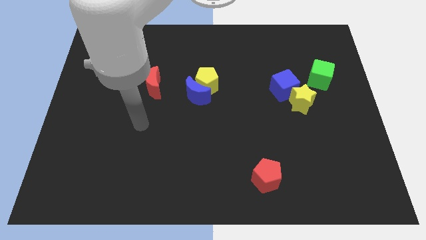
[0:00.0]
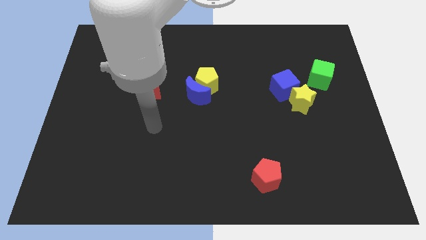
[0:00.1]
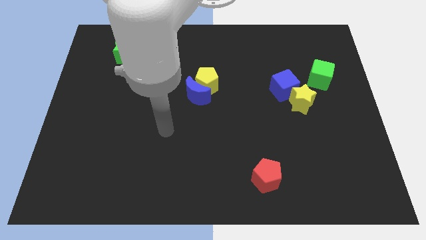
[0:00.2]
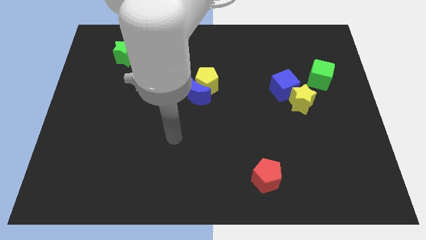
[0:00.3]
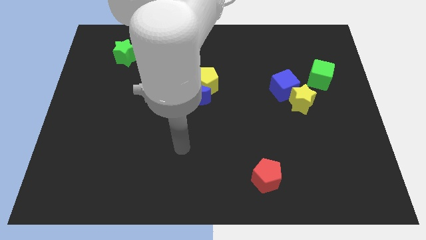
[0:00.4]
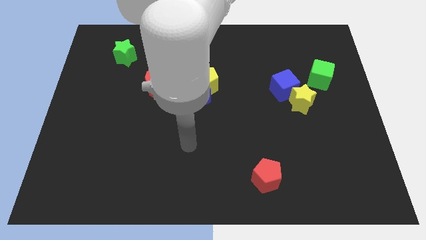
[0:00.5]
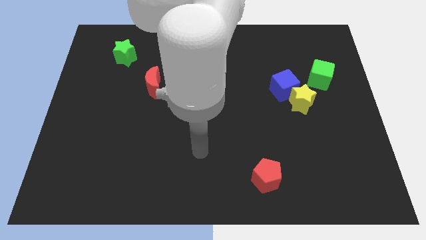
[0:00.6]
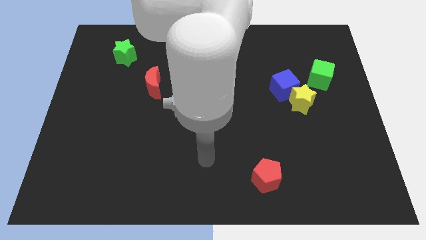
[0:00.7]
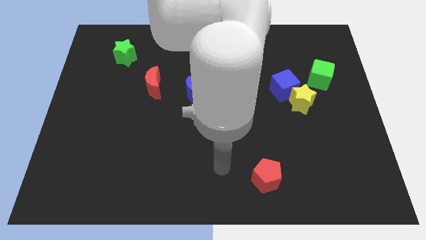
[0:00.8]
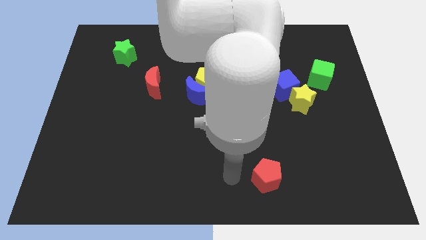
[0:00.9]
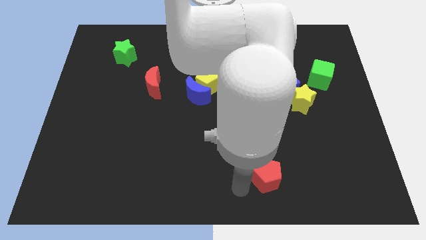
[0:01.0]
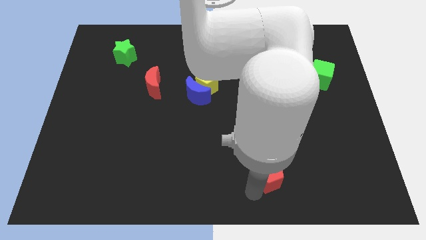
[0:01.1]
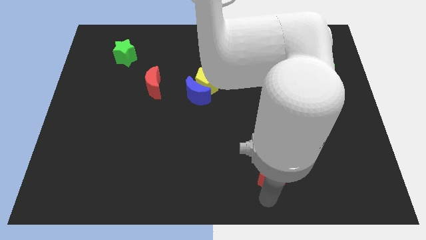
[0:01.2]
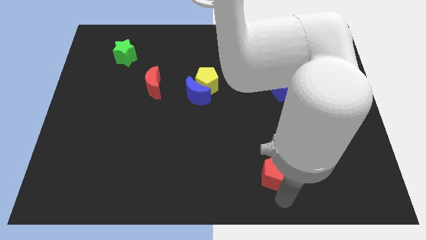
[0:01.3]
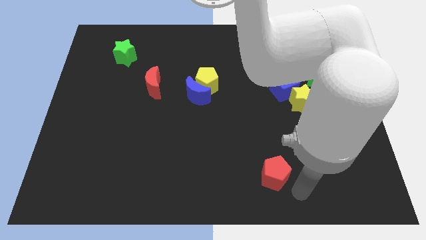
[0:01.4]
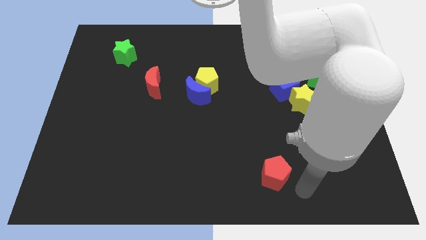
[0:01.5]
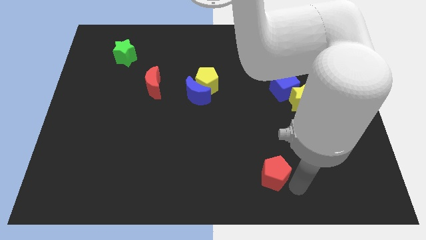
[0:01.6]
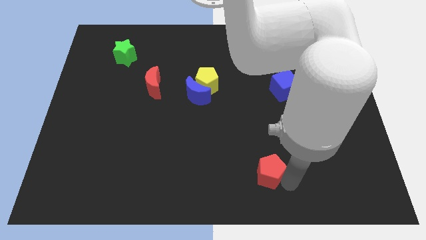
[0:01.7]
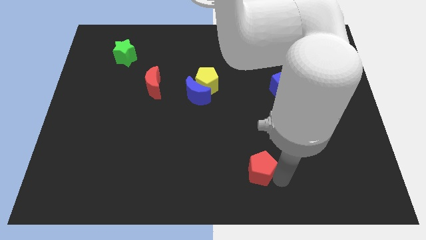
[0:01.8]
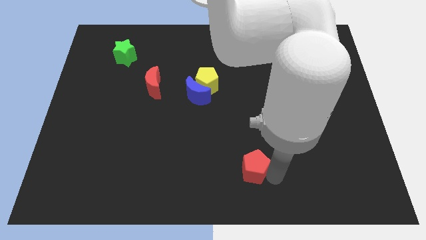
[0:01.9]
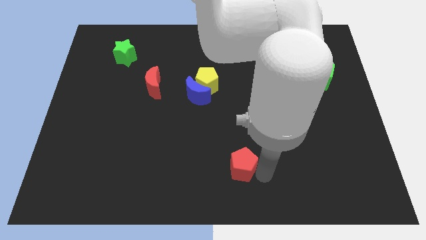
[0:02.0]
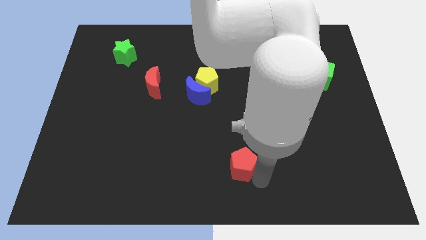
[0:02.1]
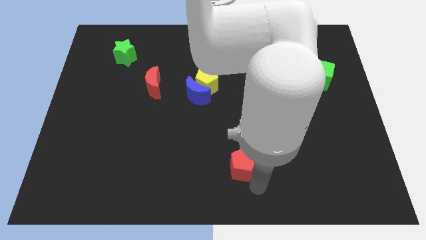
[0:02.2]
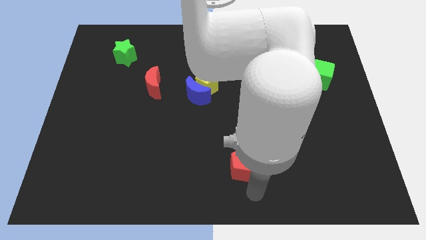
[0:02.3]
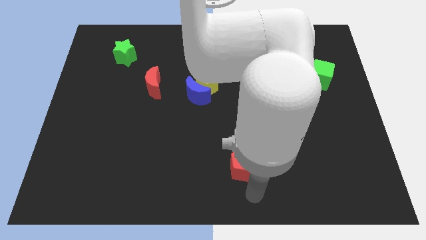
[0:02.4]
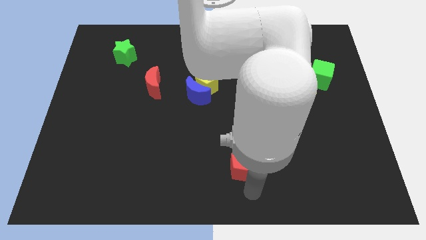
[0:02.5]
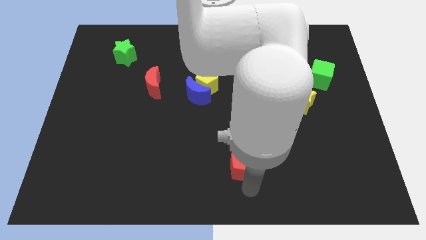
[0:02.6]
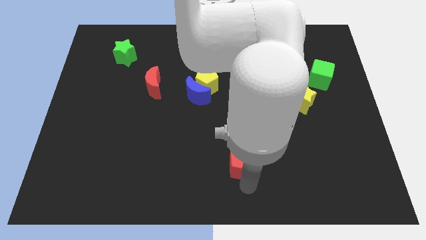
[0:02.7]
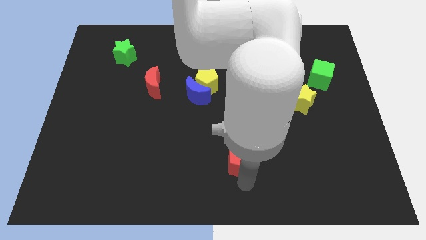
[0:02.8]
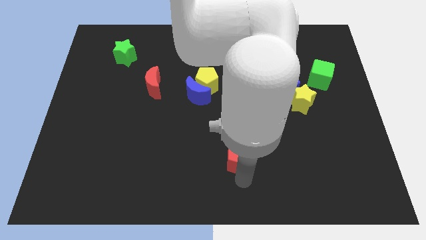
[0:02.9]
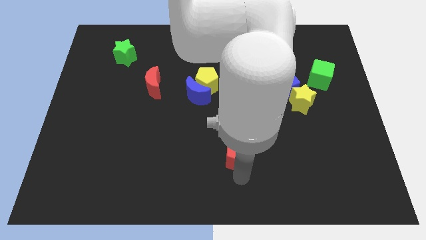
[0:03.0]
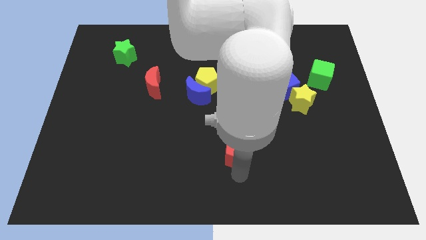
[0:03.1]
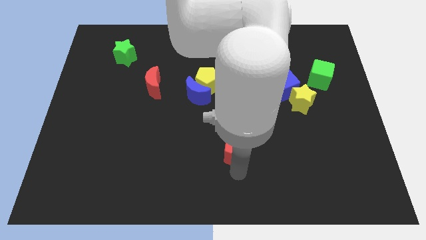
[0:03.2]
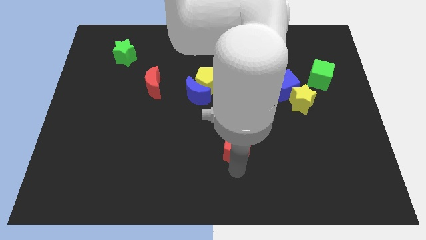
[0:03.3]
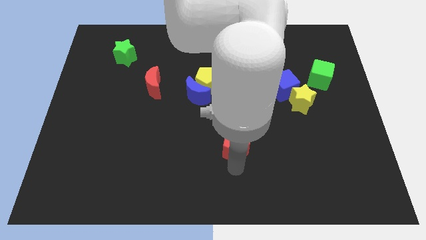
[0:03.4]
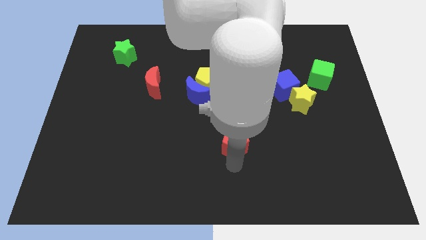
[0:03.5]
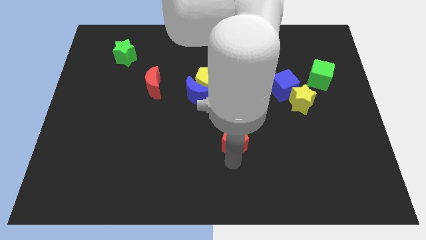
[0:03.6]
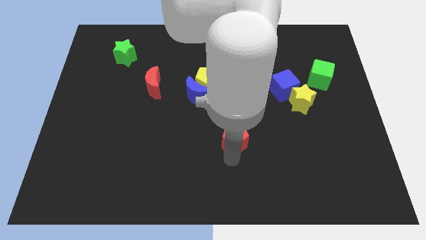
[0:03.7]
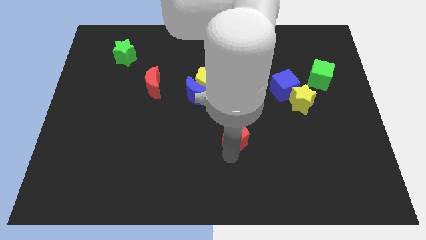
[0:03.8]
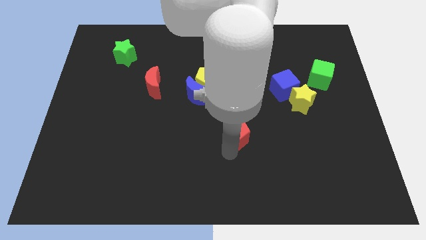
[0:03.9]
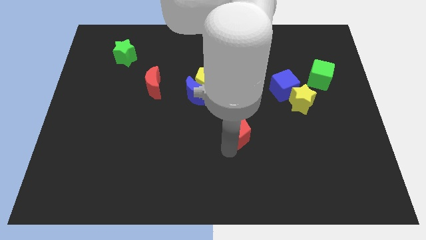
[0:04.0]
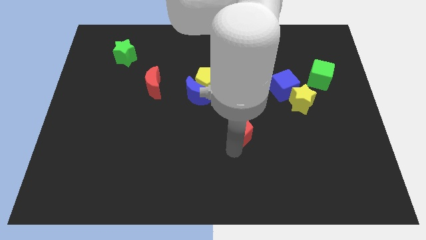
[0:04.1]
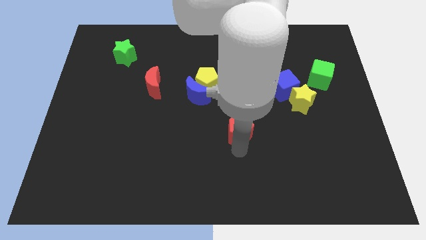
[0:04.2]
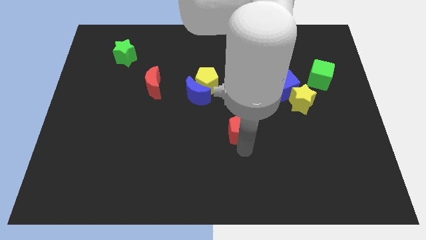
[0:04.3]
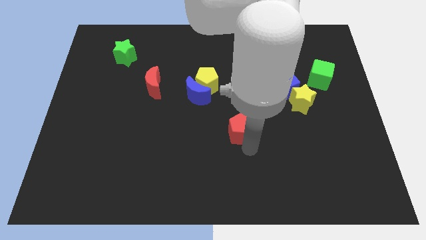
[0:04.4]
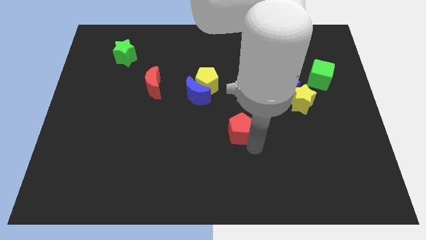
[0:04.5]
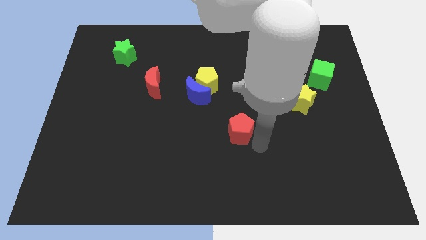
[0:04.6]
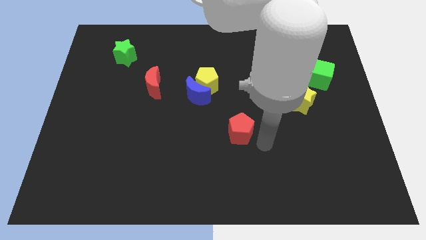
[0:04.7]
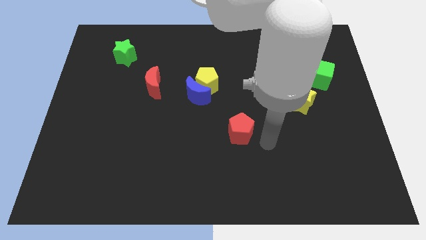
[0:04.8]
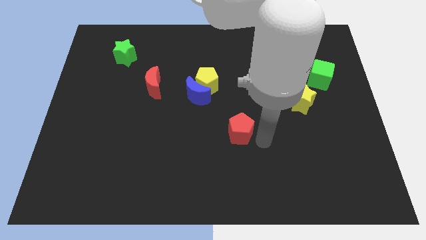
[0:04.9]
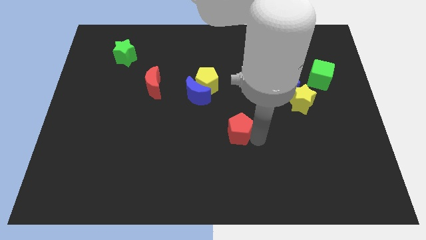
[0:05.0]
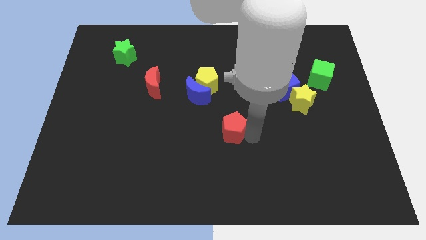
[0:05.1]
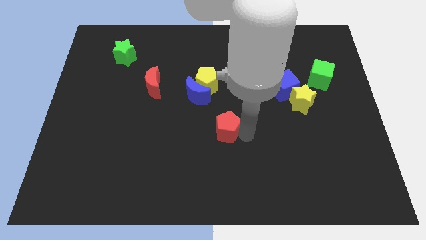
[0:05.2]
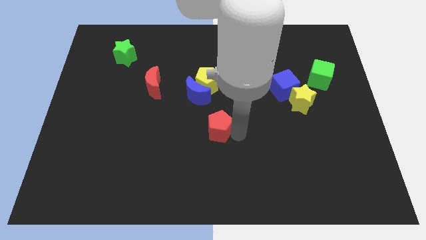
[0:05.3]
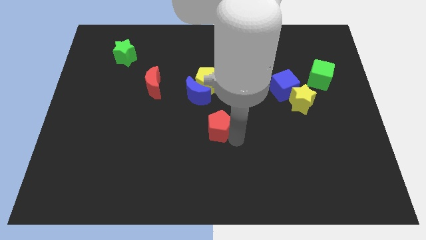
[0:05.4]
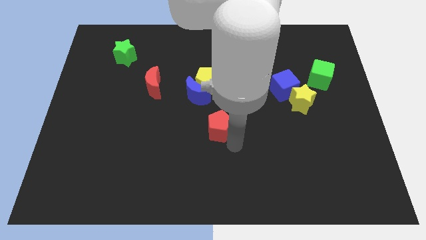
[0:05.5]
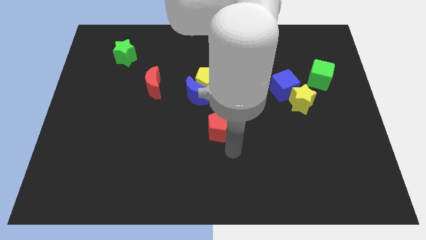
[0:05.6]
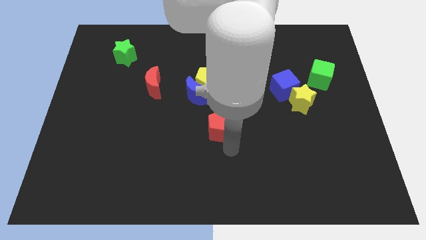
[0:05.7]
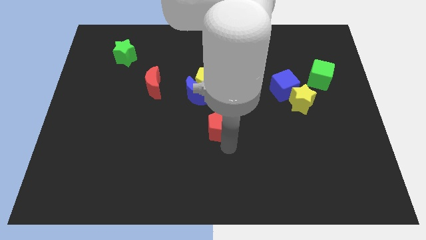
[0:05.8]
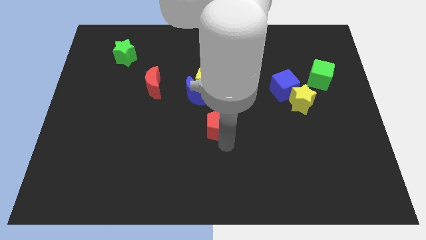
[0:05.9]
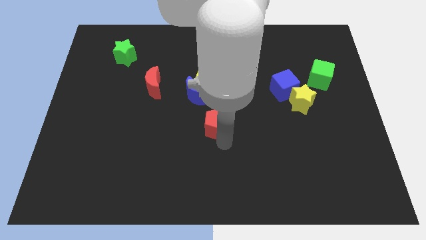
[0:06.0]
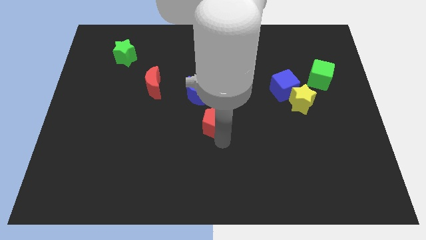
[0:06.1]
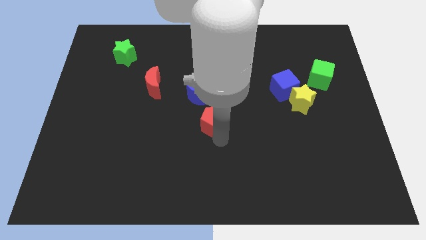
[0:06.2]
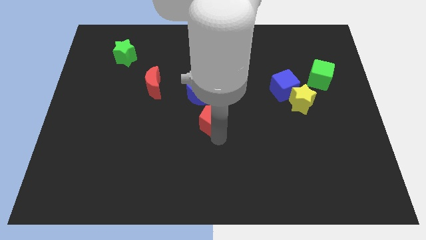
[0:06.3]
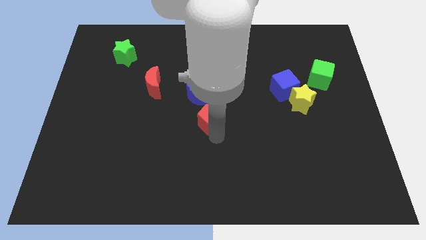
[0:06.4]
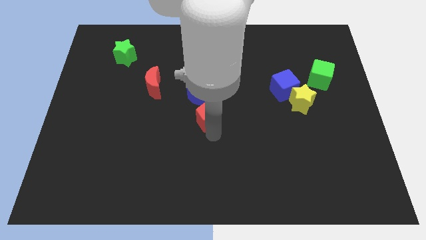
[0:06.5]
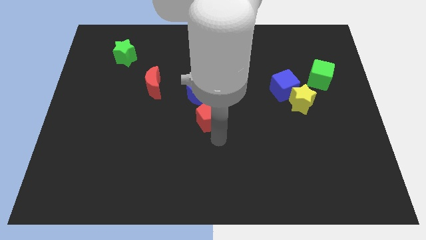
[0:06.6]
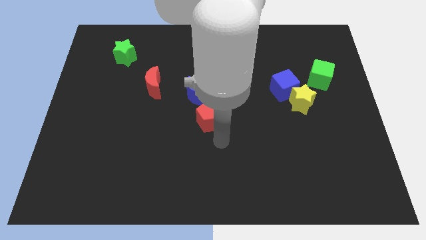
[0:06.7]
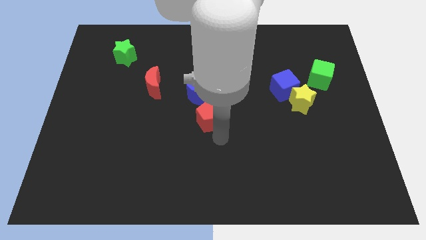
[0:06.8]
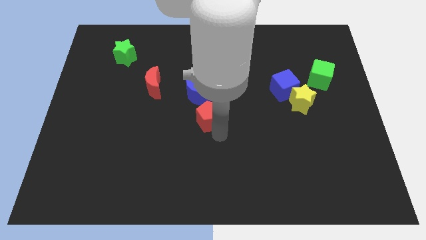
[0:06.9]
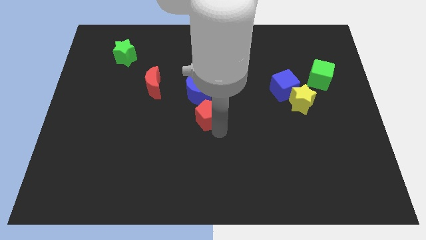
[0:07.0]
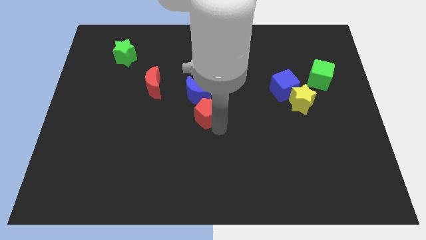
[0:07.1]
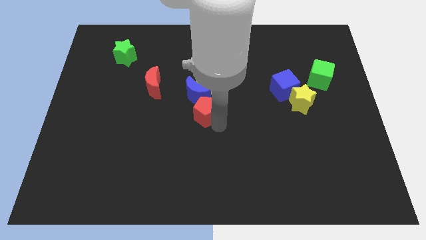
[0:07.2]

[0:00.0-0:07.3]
push the red pentagon to the blue moon
